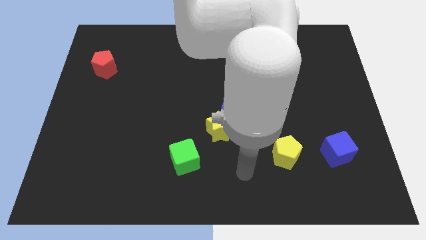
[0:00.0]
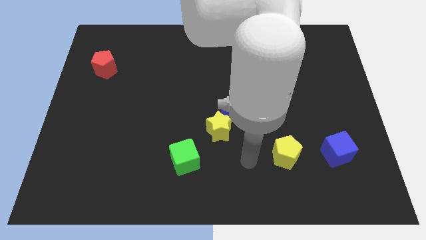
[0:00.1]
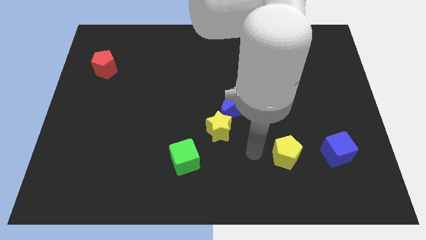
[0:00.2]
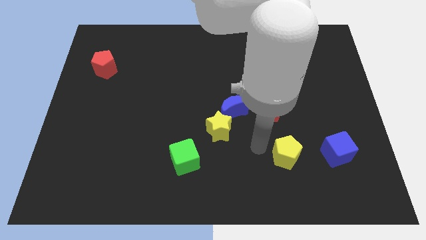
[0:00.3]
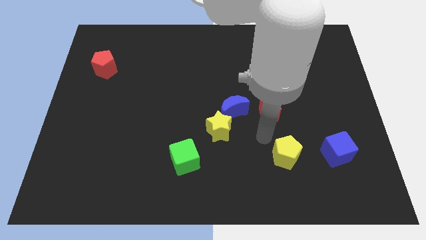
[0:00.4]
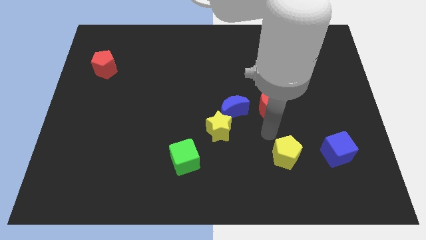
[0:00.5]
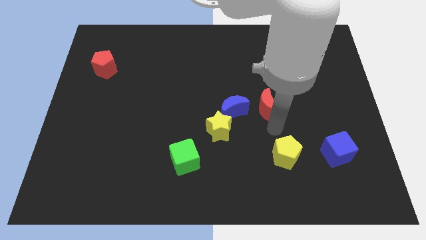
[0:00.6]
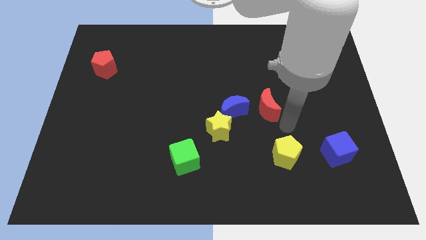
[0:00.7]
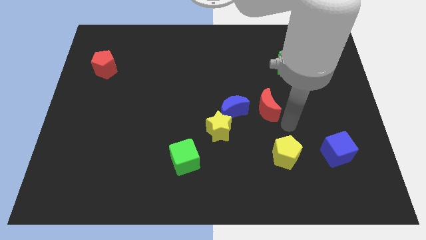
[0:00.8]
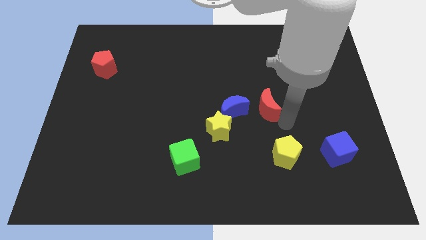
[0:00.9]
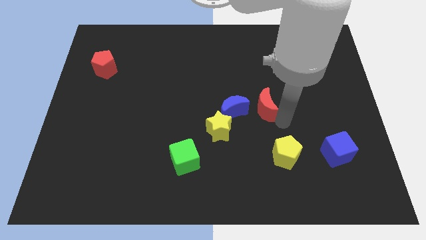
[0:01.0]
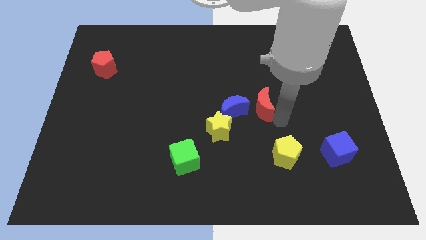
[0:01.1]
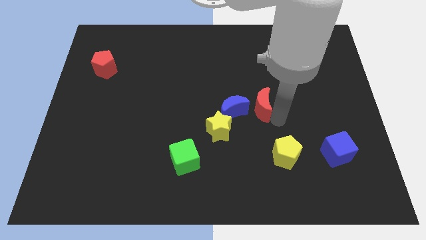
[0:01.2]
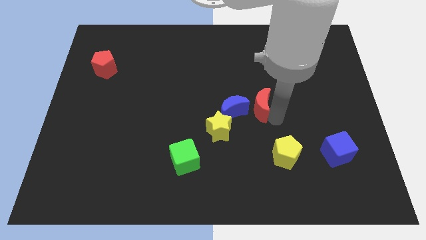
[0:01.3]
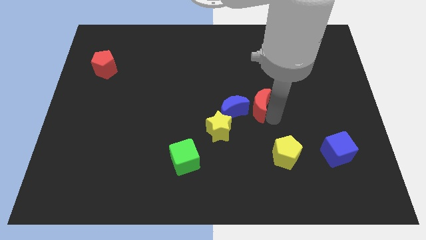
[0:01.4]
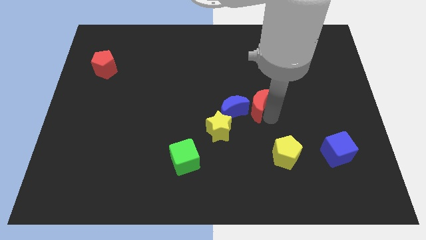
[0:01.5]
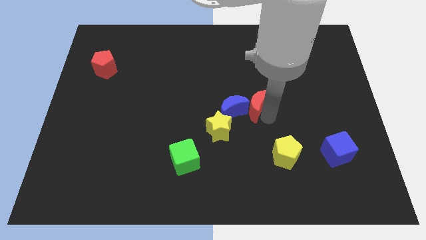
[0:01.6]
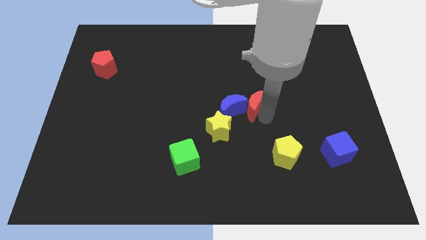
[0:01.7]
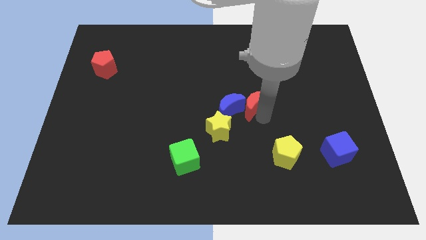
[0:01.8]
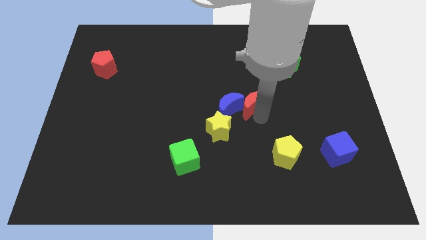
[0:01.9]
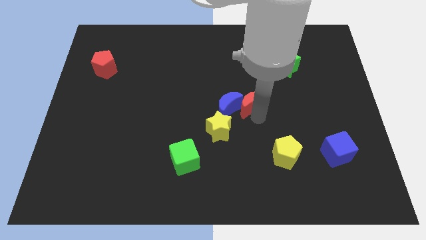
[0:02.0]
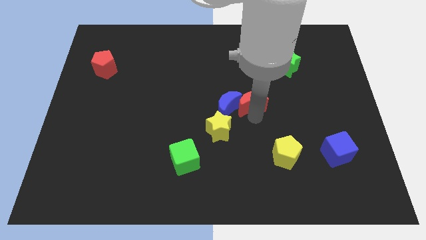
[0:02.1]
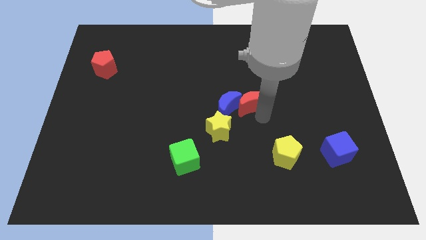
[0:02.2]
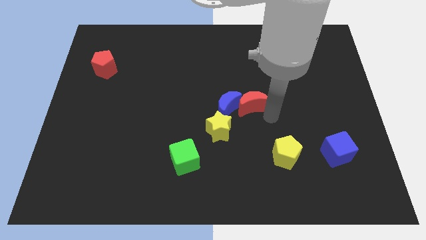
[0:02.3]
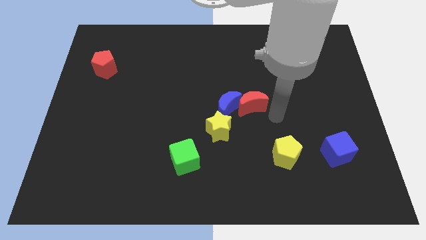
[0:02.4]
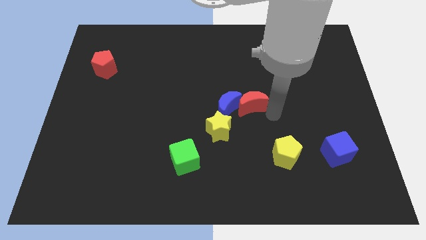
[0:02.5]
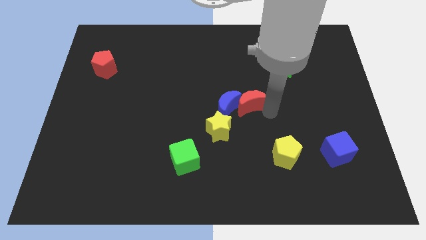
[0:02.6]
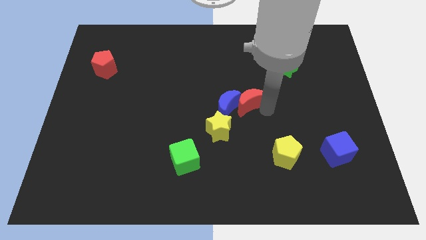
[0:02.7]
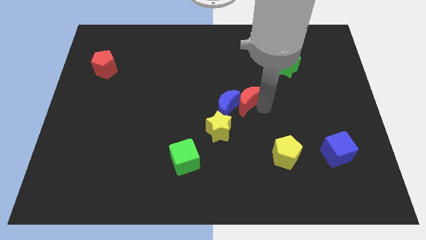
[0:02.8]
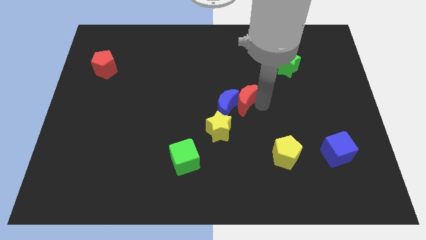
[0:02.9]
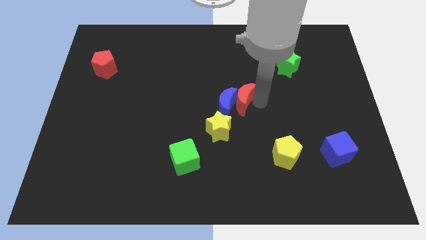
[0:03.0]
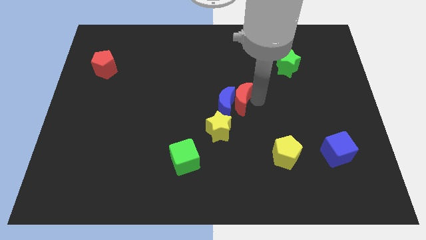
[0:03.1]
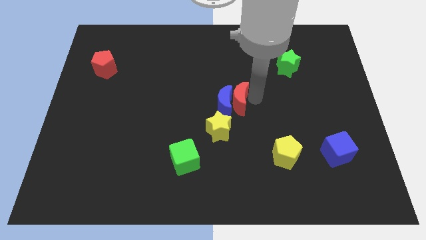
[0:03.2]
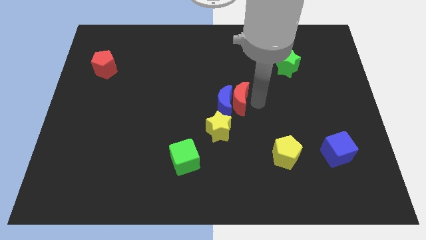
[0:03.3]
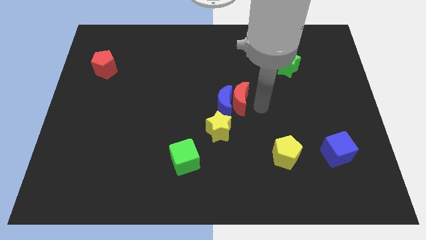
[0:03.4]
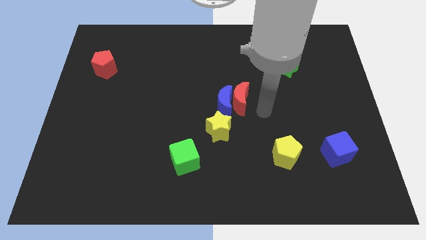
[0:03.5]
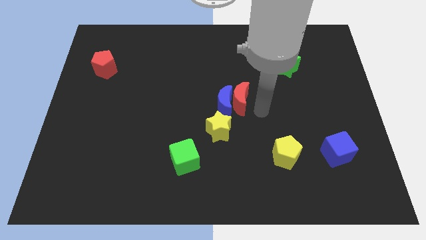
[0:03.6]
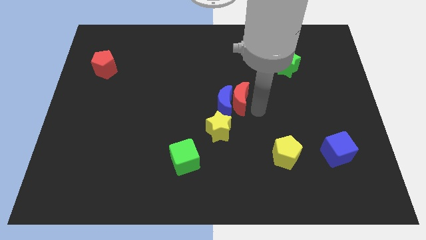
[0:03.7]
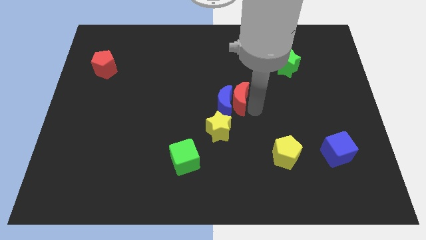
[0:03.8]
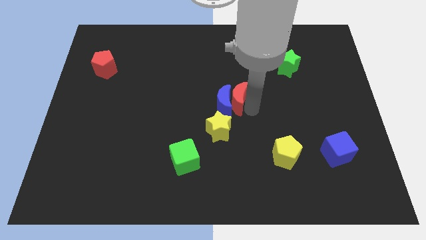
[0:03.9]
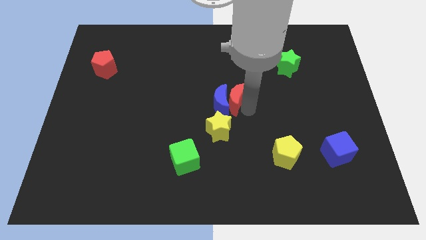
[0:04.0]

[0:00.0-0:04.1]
slide the red moon a bit left

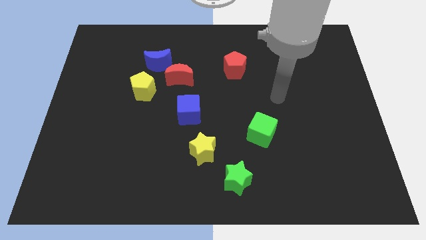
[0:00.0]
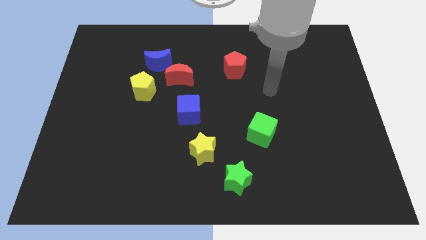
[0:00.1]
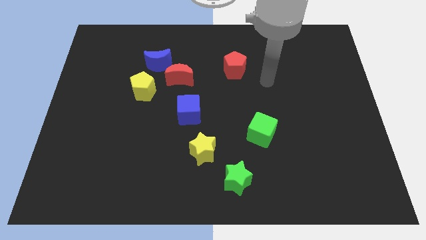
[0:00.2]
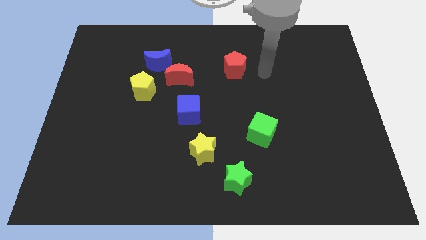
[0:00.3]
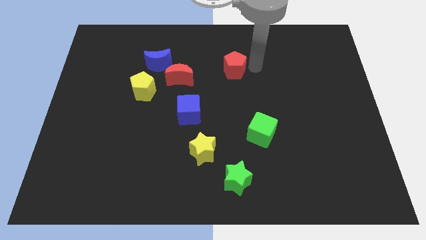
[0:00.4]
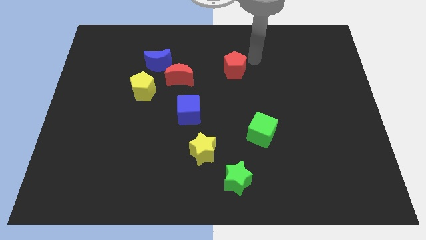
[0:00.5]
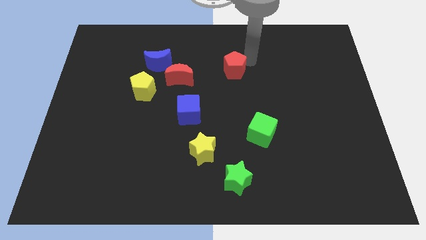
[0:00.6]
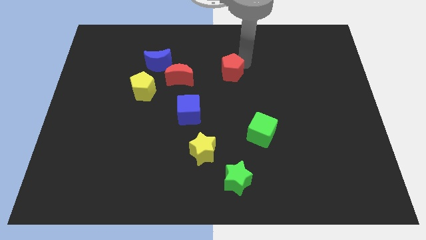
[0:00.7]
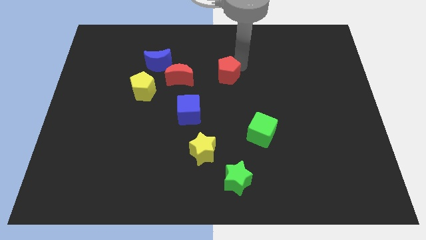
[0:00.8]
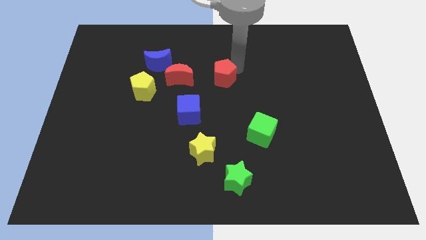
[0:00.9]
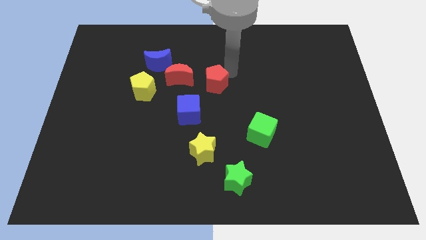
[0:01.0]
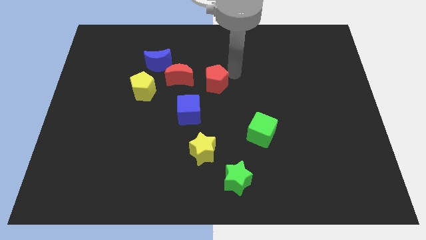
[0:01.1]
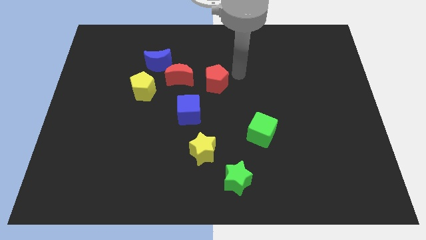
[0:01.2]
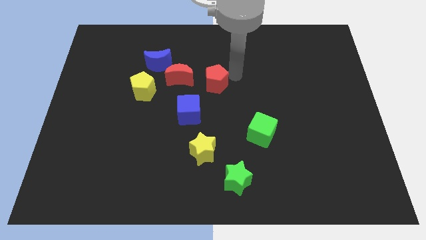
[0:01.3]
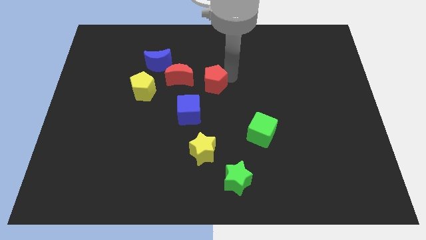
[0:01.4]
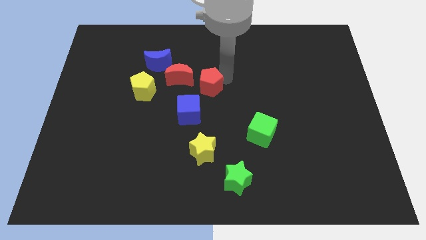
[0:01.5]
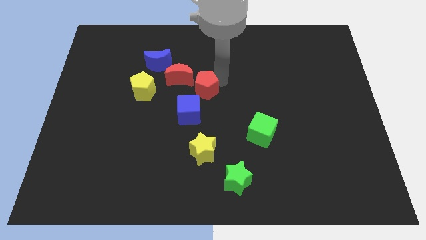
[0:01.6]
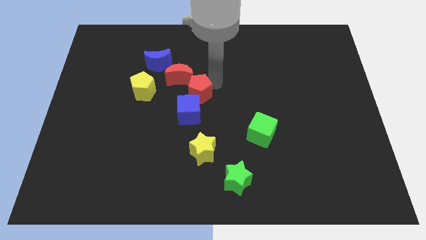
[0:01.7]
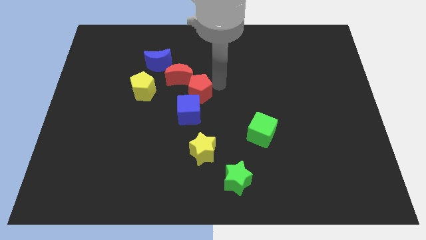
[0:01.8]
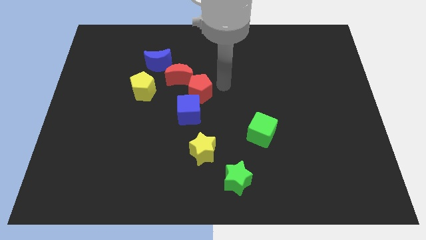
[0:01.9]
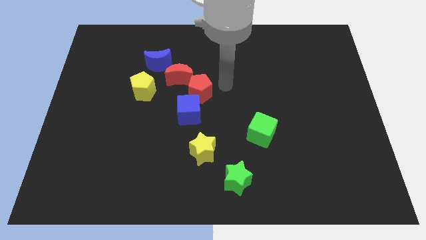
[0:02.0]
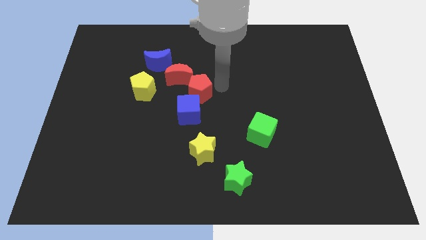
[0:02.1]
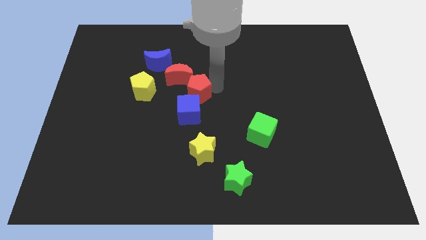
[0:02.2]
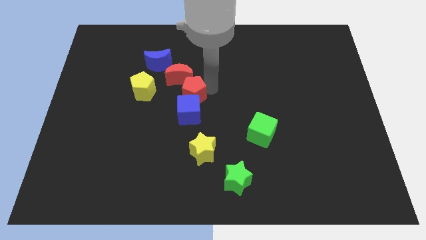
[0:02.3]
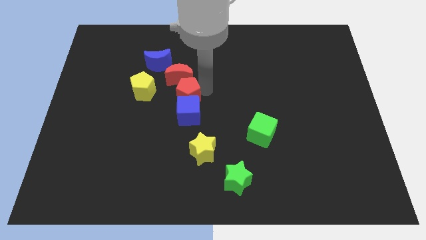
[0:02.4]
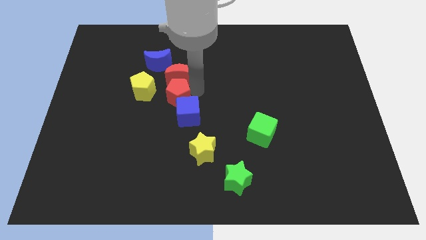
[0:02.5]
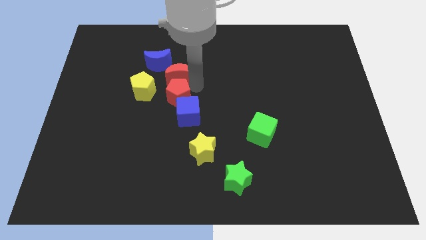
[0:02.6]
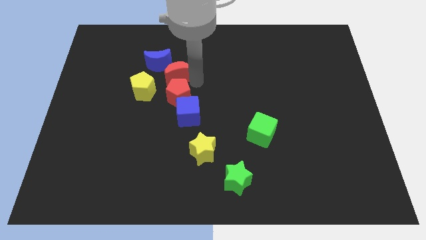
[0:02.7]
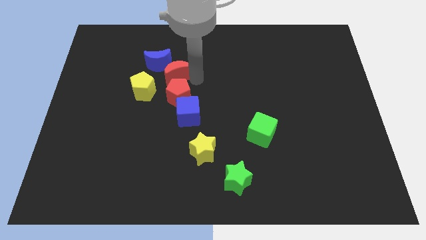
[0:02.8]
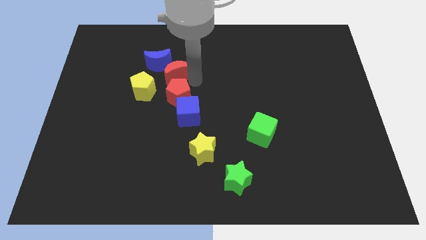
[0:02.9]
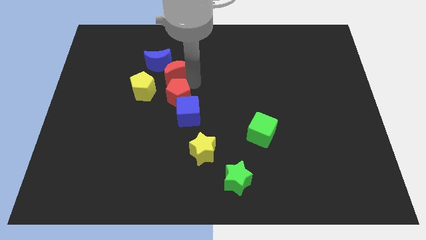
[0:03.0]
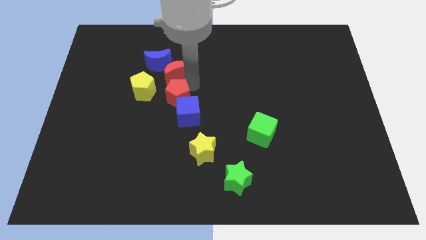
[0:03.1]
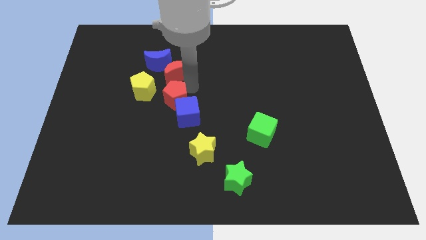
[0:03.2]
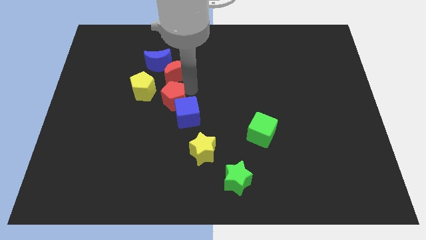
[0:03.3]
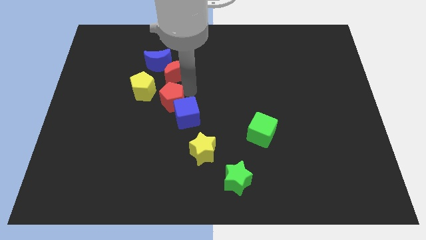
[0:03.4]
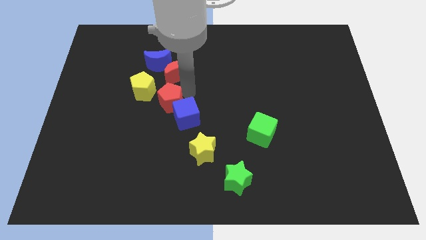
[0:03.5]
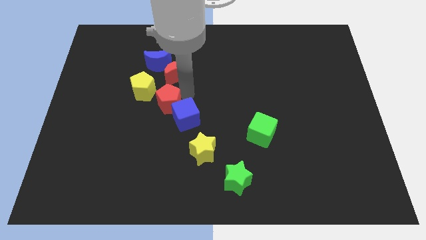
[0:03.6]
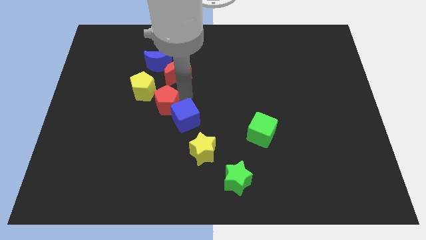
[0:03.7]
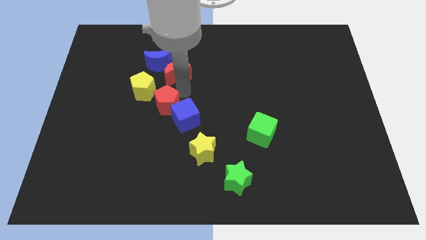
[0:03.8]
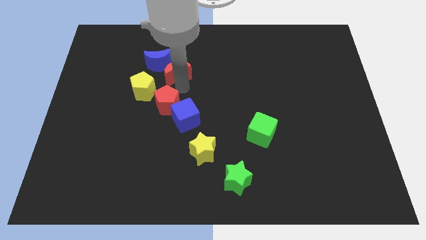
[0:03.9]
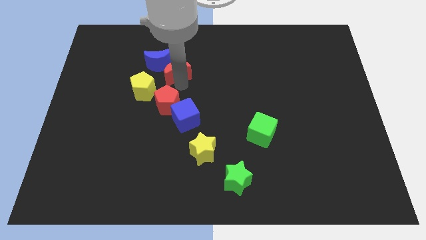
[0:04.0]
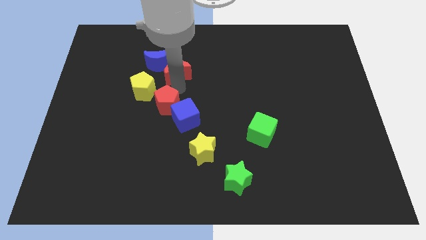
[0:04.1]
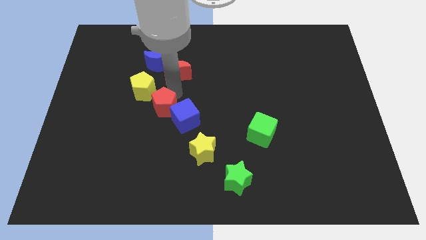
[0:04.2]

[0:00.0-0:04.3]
move the red pentagon downwards and left
